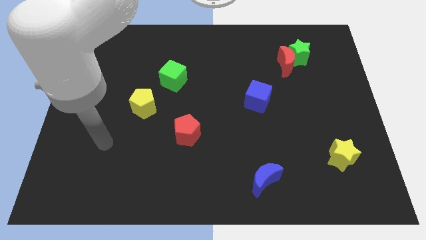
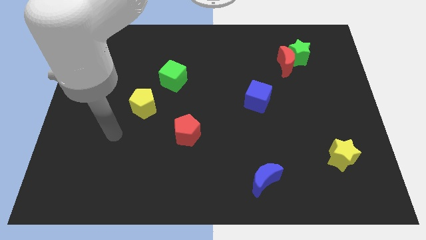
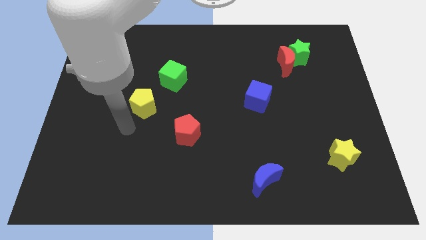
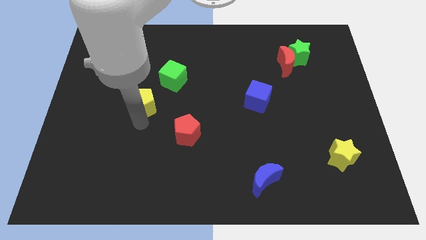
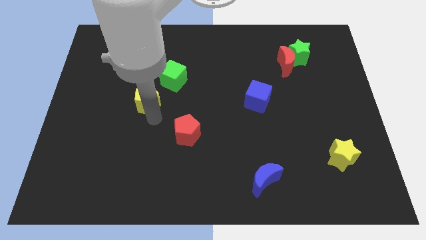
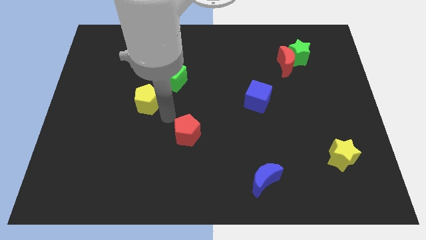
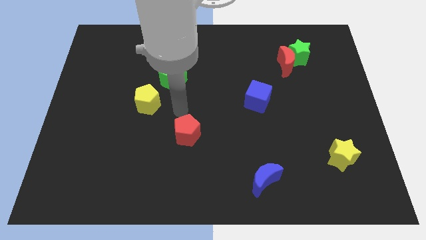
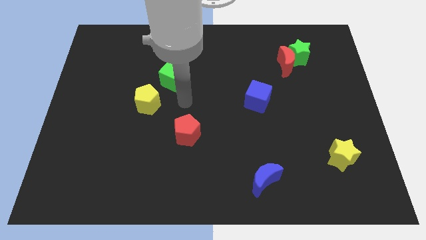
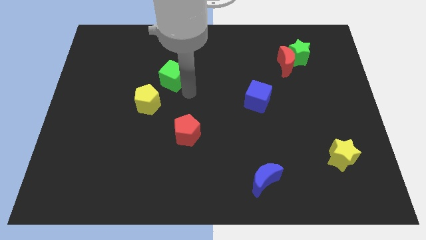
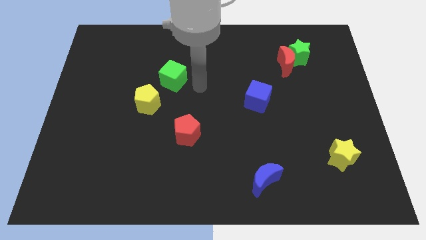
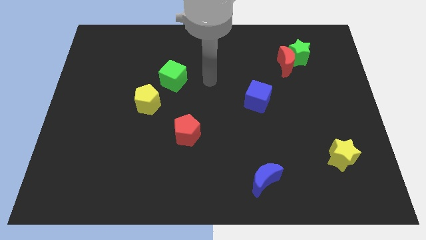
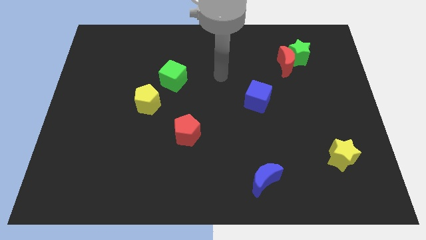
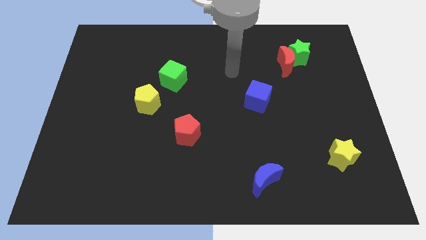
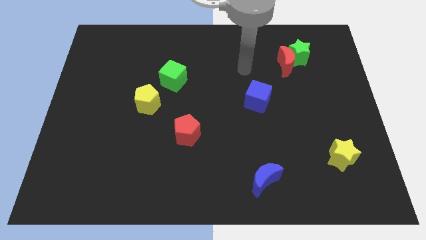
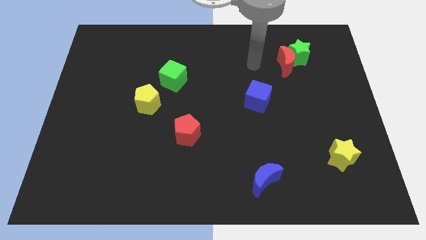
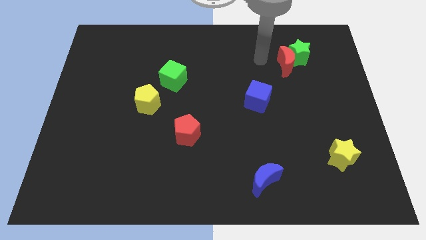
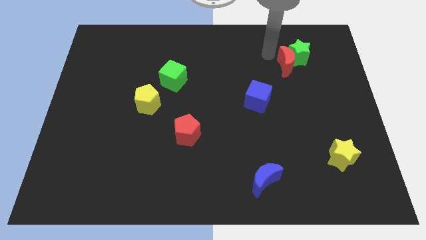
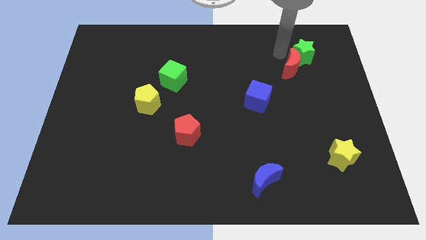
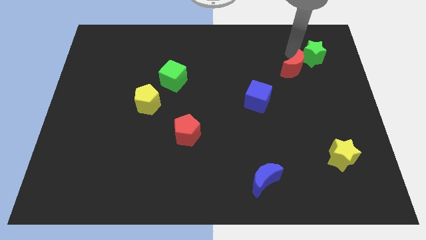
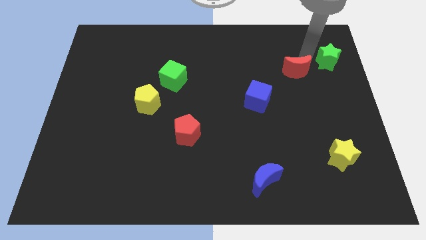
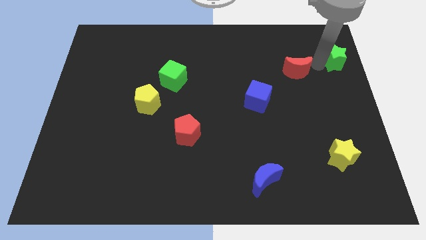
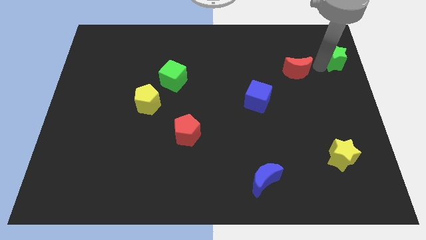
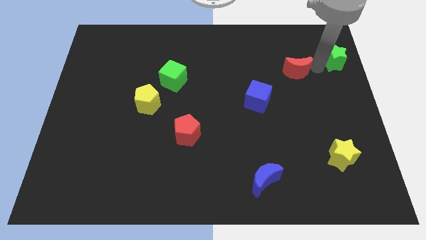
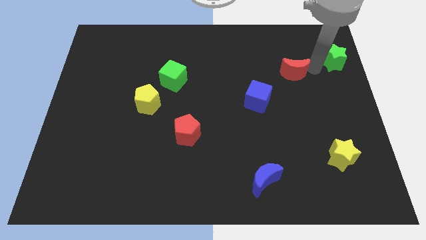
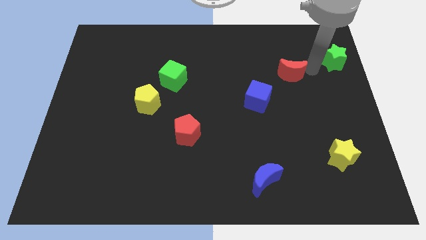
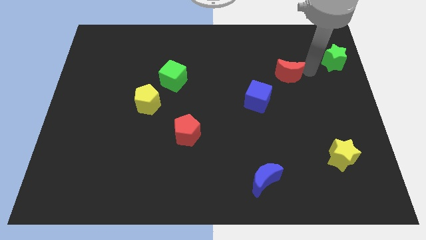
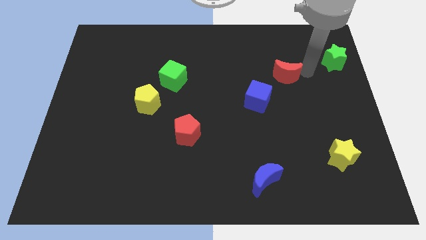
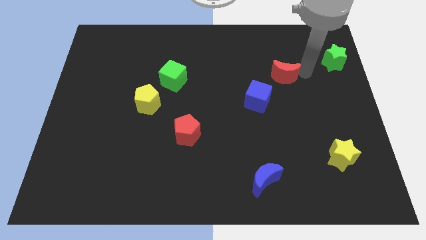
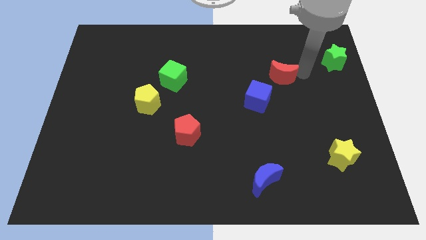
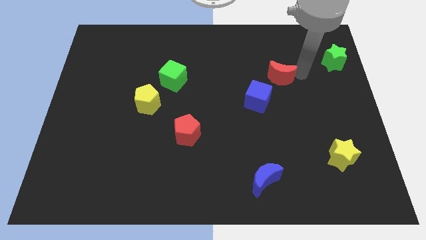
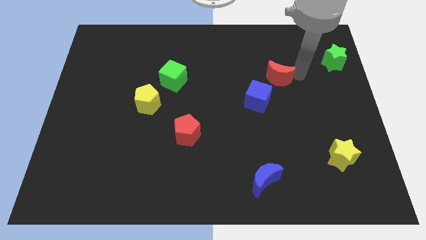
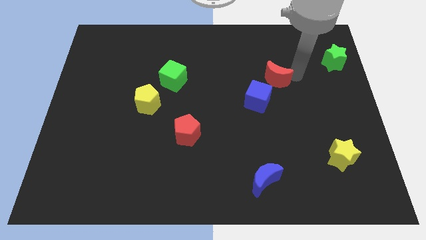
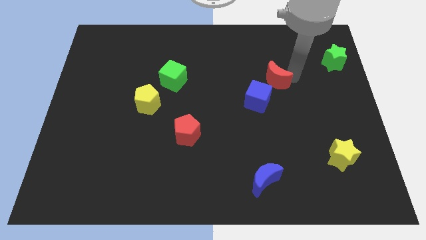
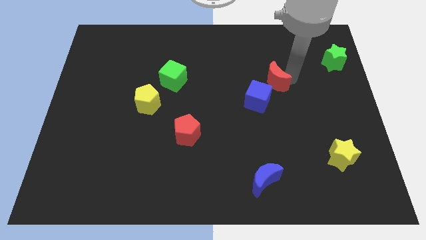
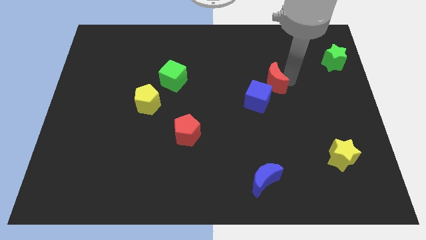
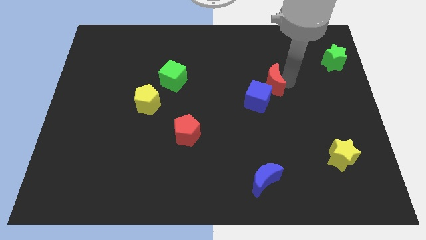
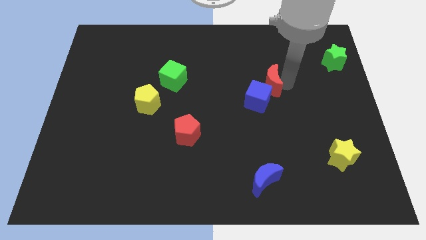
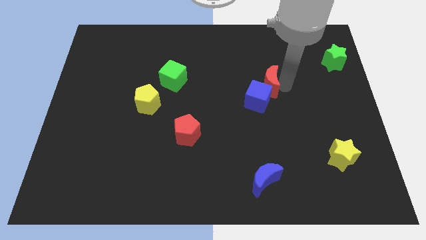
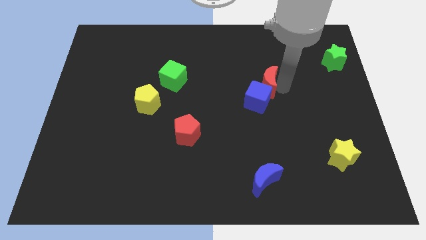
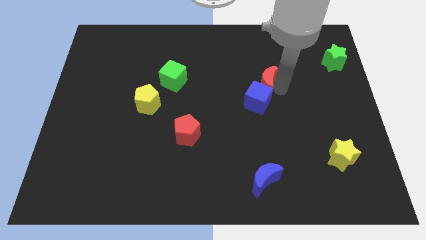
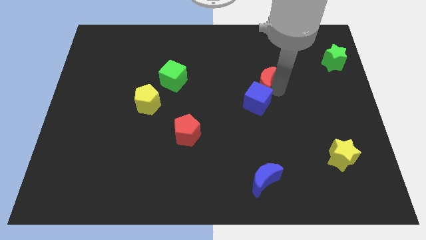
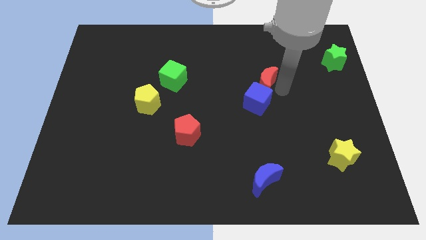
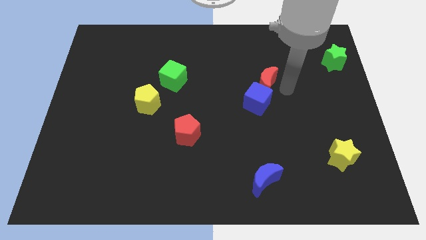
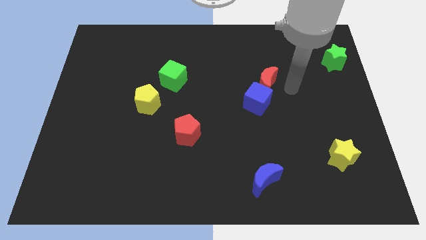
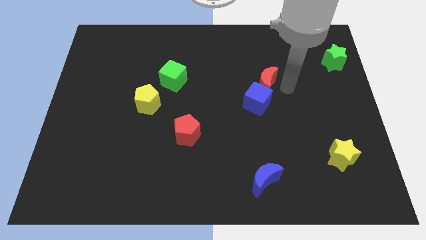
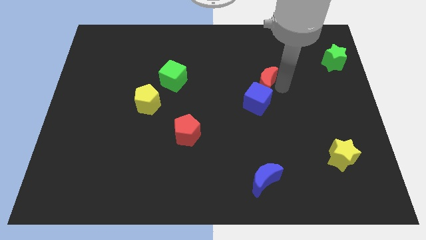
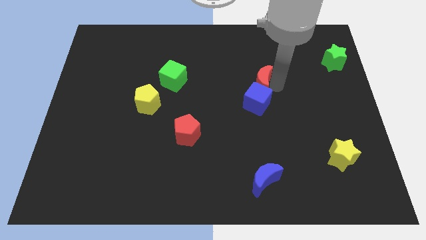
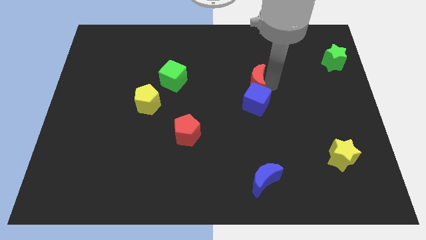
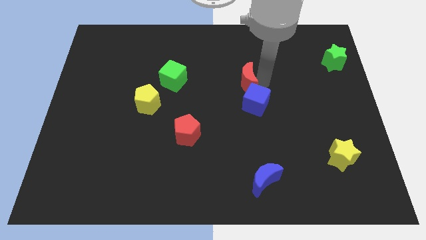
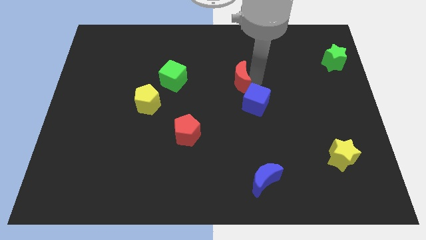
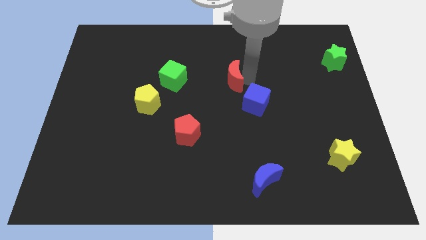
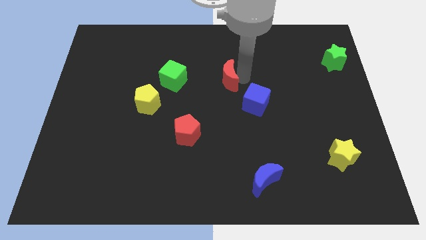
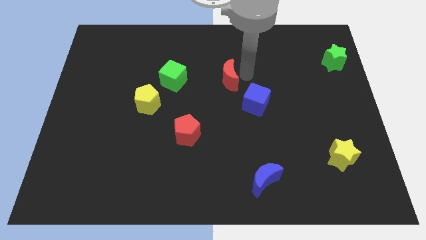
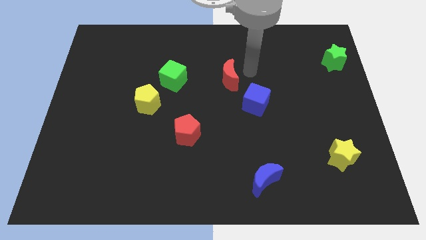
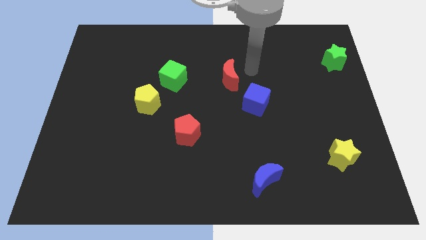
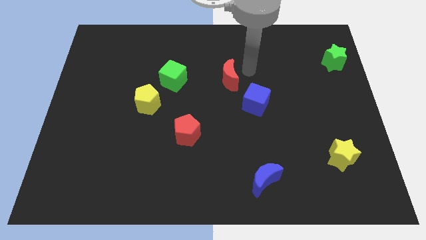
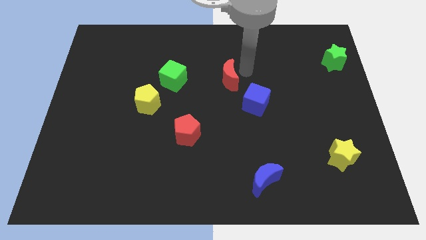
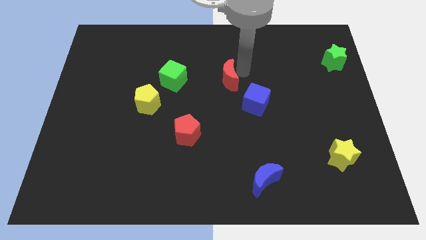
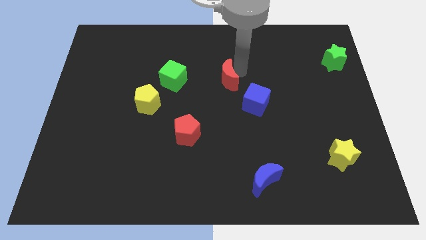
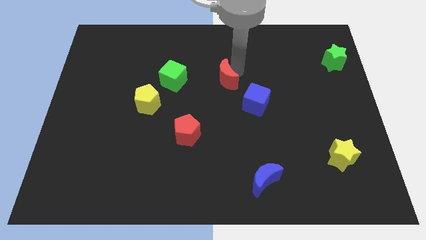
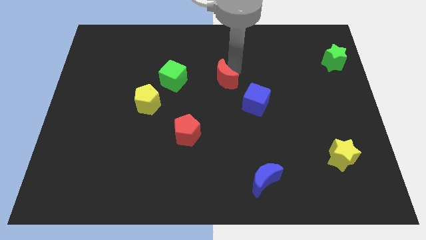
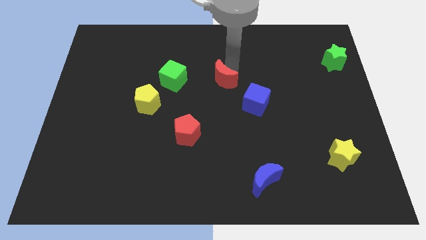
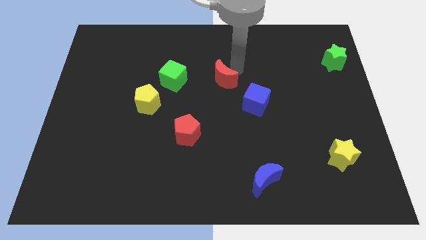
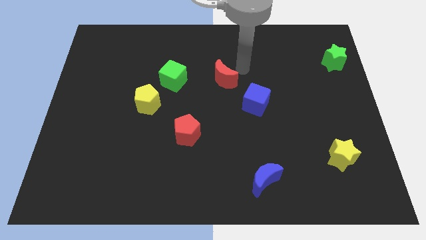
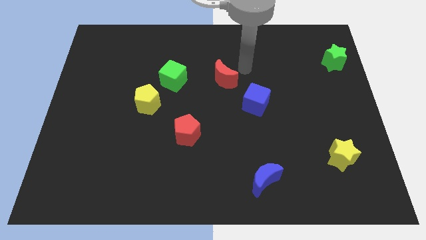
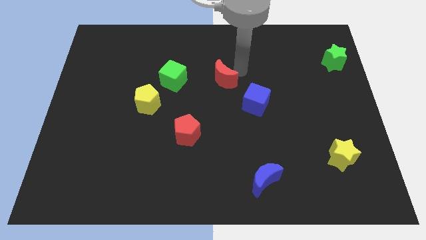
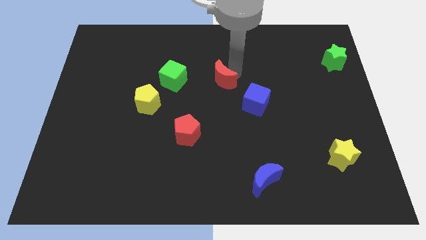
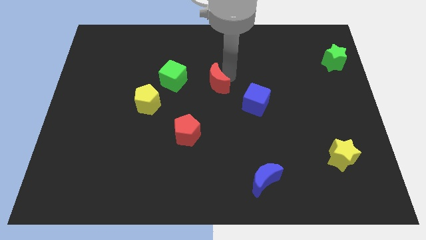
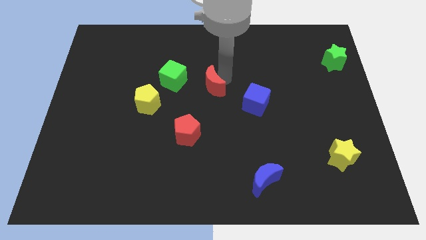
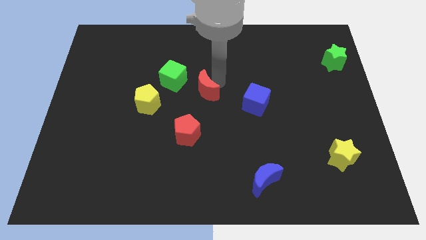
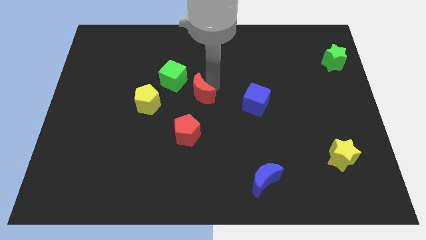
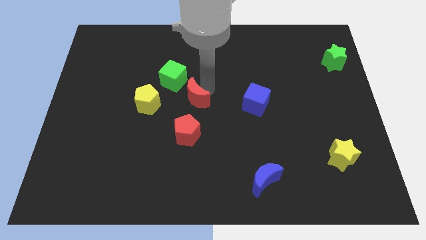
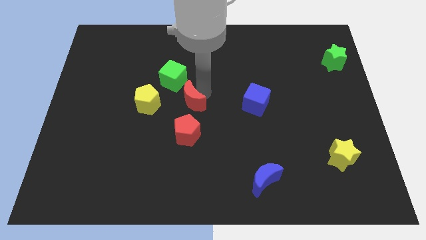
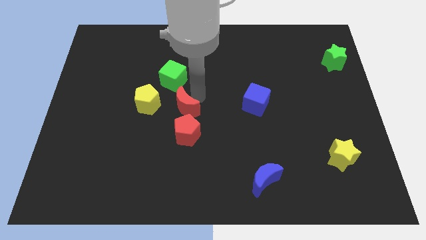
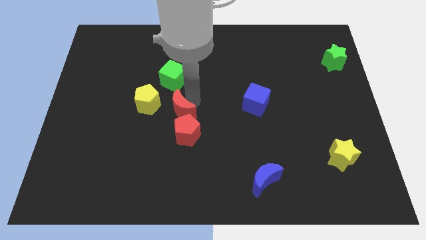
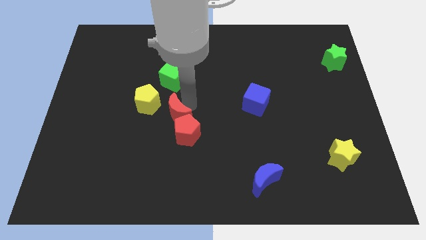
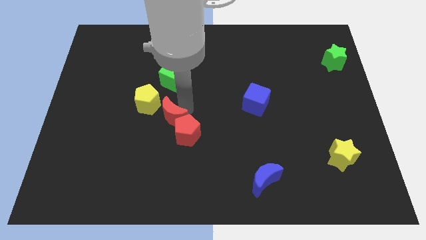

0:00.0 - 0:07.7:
put the red moon just left of the red pentagon
